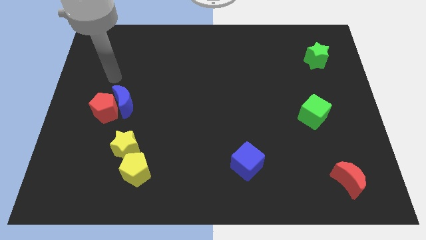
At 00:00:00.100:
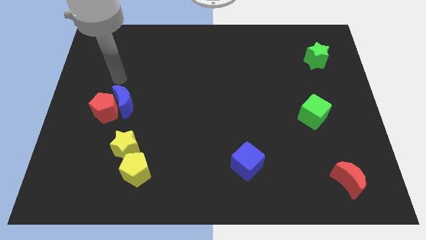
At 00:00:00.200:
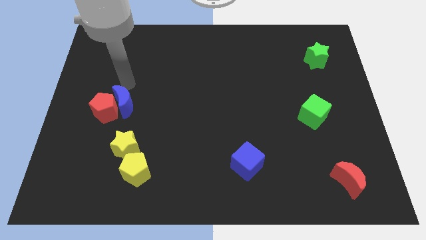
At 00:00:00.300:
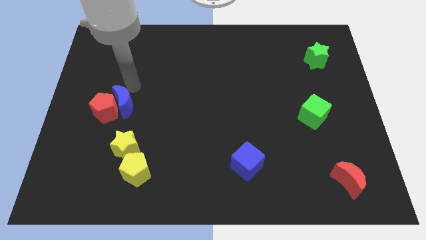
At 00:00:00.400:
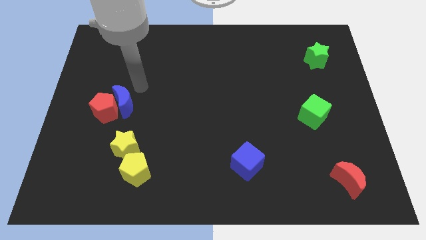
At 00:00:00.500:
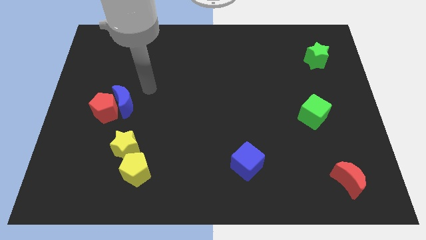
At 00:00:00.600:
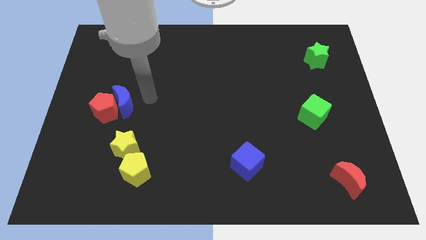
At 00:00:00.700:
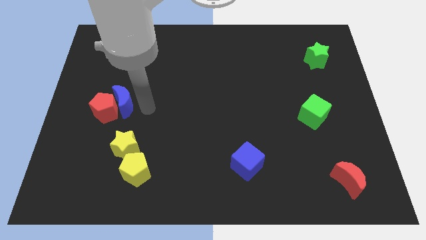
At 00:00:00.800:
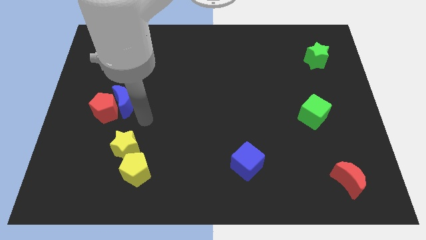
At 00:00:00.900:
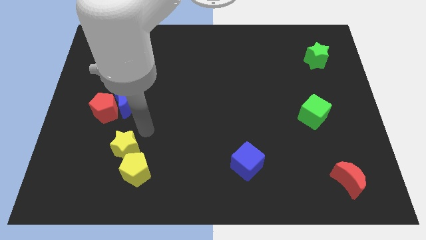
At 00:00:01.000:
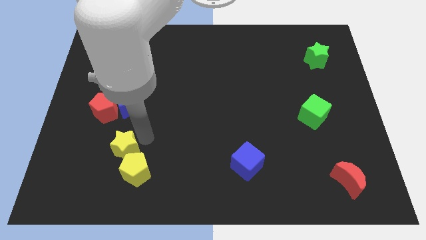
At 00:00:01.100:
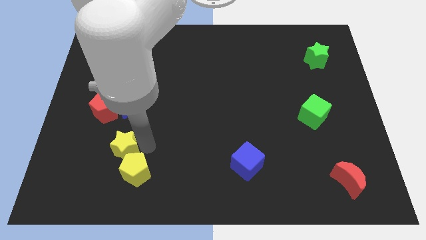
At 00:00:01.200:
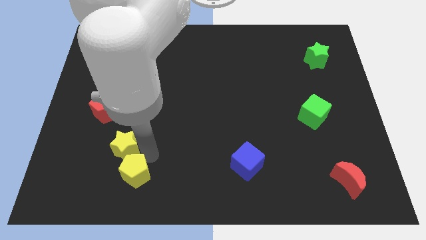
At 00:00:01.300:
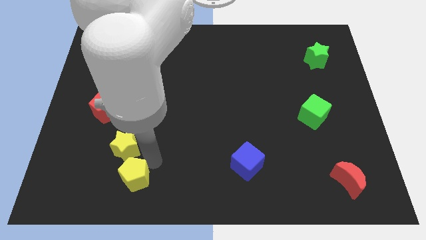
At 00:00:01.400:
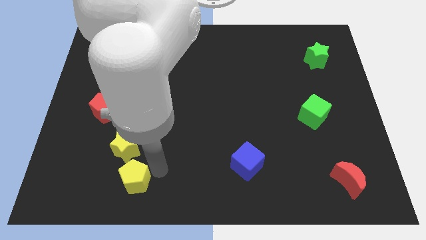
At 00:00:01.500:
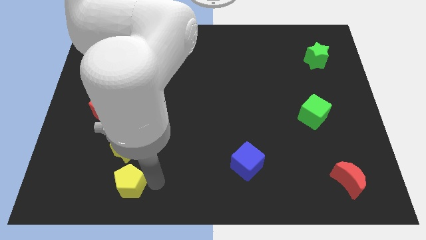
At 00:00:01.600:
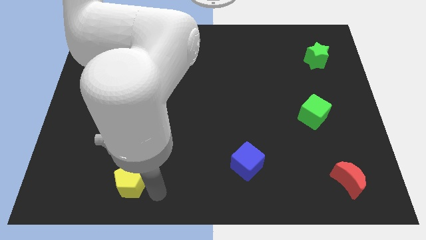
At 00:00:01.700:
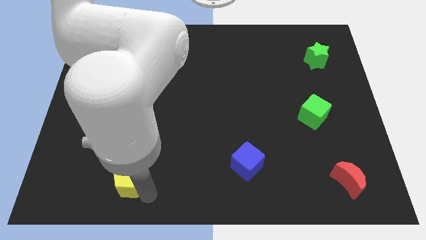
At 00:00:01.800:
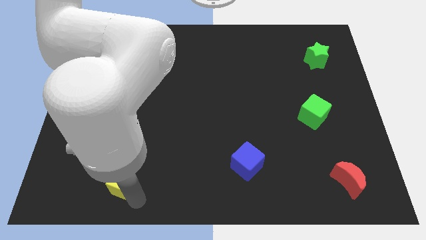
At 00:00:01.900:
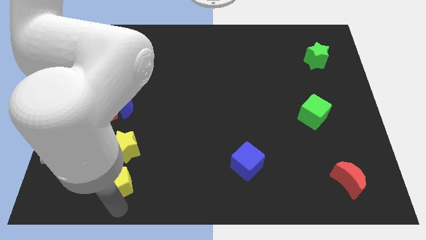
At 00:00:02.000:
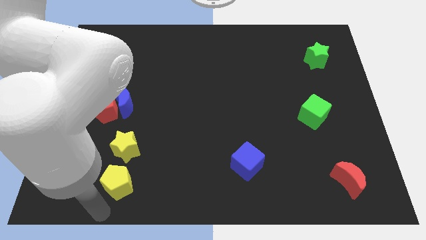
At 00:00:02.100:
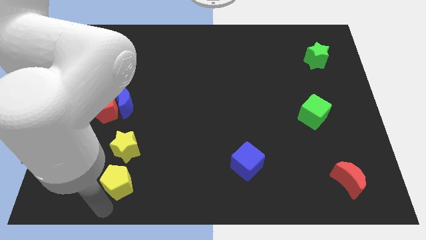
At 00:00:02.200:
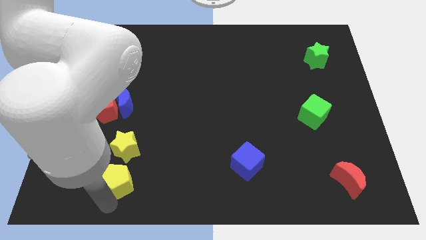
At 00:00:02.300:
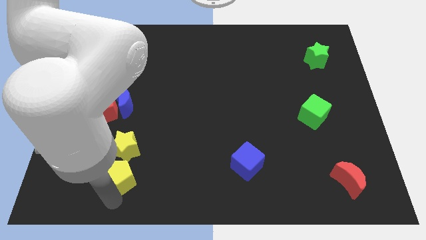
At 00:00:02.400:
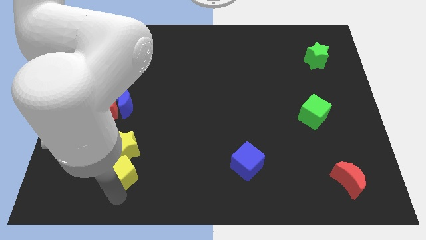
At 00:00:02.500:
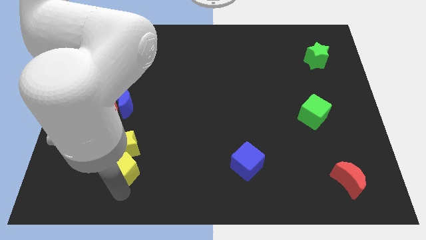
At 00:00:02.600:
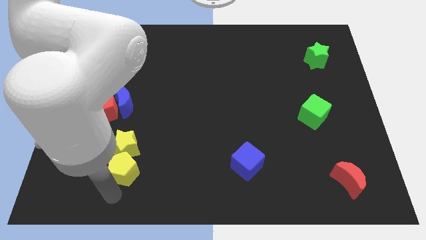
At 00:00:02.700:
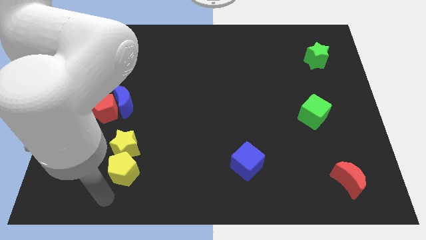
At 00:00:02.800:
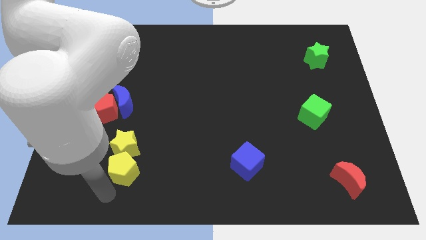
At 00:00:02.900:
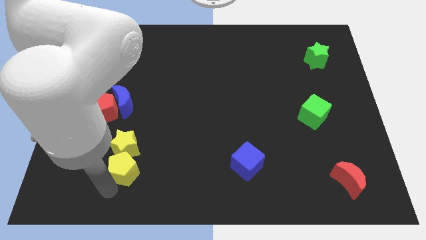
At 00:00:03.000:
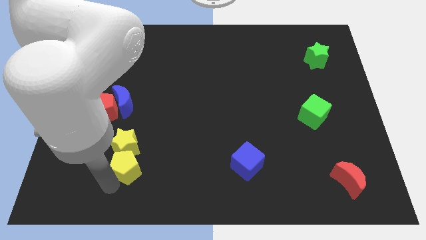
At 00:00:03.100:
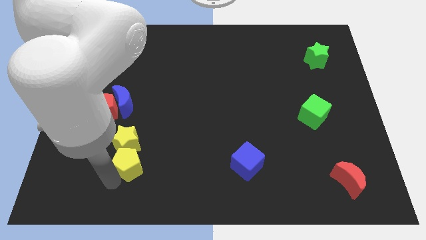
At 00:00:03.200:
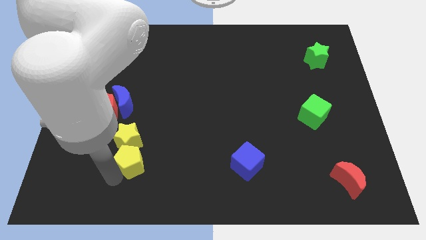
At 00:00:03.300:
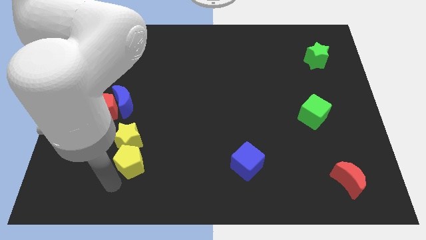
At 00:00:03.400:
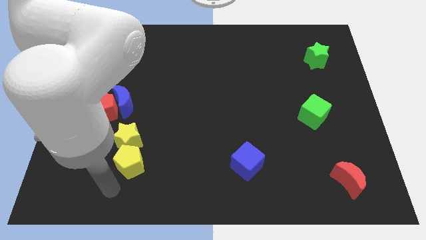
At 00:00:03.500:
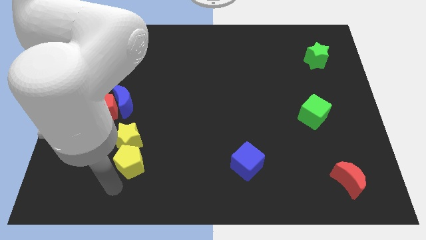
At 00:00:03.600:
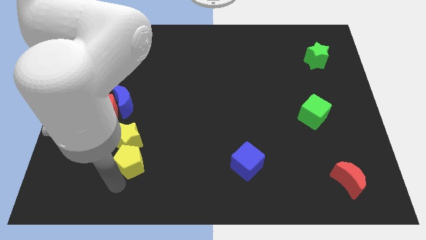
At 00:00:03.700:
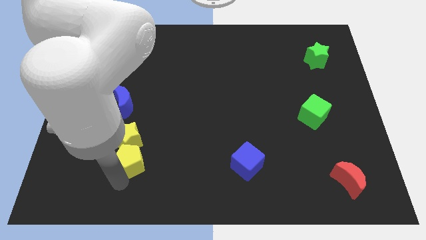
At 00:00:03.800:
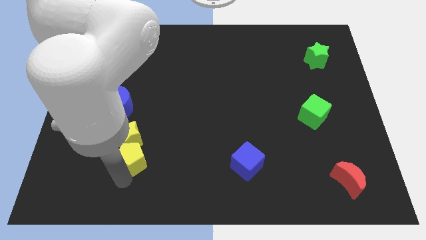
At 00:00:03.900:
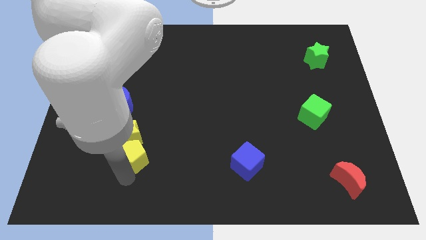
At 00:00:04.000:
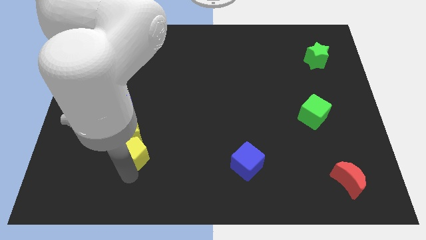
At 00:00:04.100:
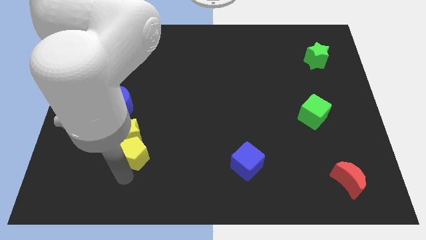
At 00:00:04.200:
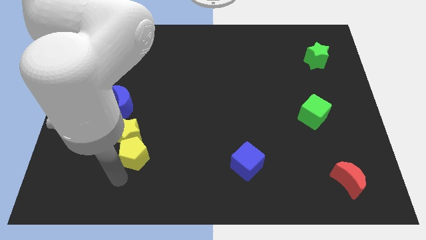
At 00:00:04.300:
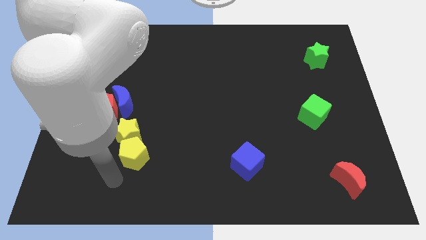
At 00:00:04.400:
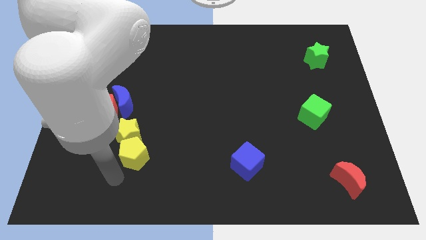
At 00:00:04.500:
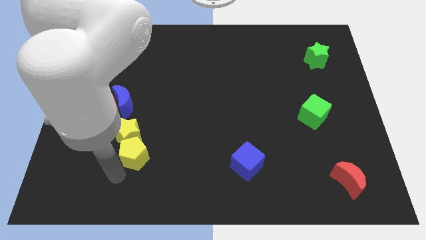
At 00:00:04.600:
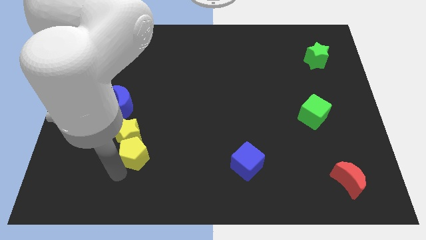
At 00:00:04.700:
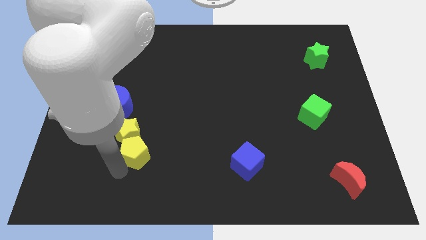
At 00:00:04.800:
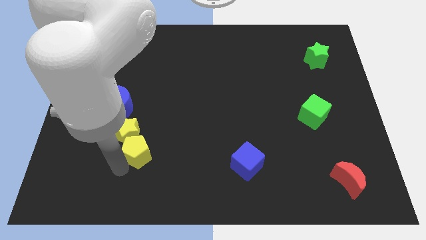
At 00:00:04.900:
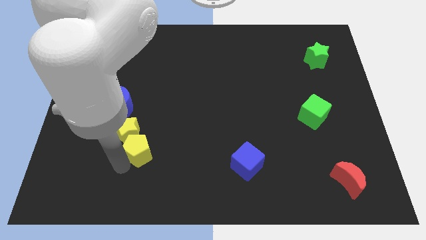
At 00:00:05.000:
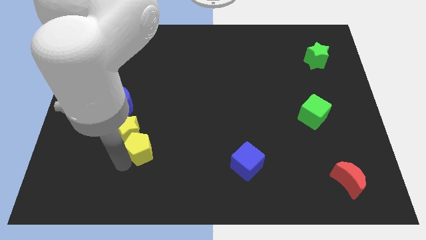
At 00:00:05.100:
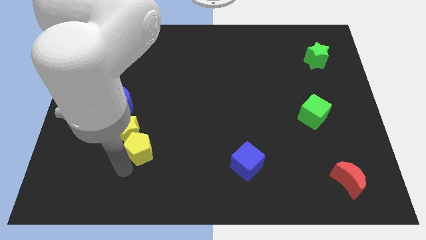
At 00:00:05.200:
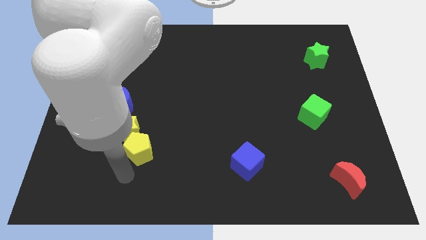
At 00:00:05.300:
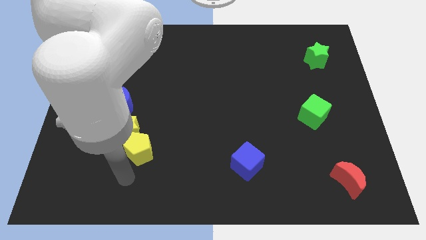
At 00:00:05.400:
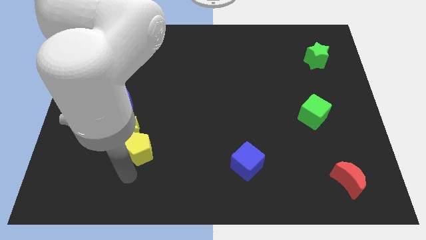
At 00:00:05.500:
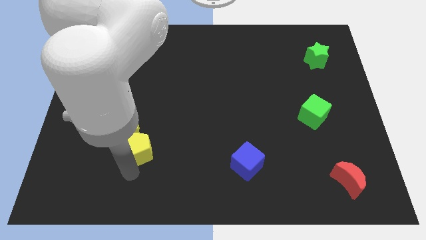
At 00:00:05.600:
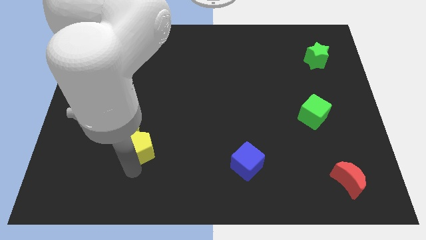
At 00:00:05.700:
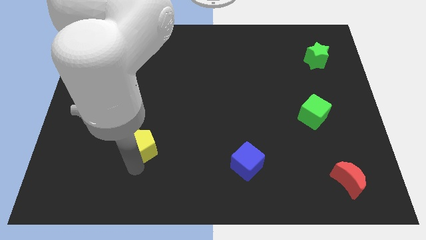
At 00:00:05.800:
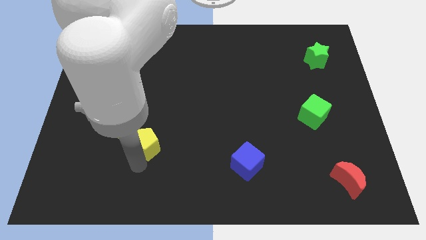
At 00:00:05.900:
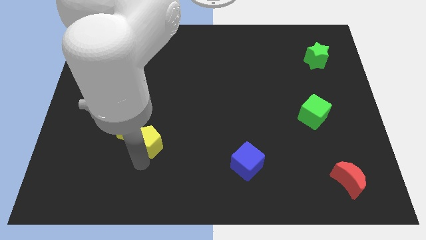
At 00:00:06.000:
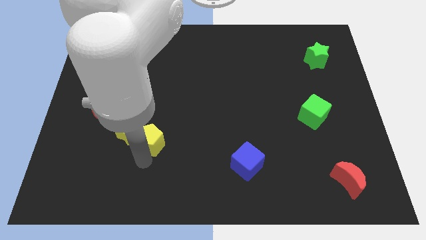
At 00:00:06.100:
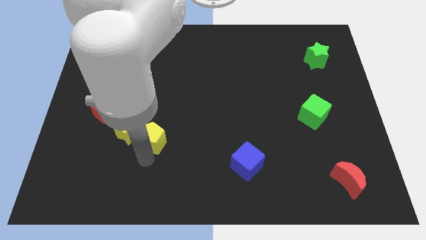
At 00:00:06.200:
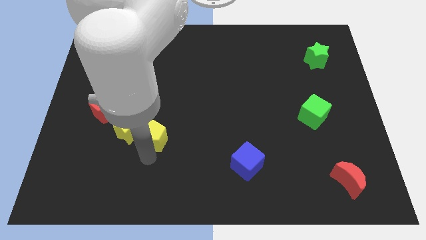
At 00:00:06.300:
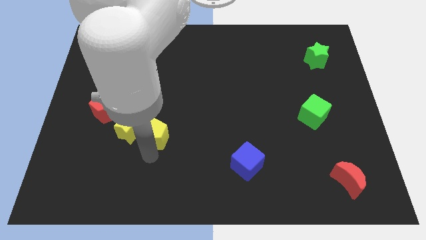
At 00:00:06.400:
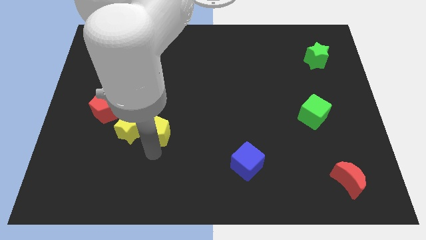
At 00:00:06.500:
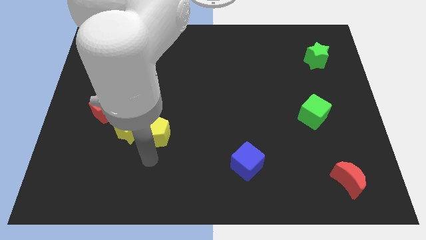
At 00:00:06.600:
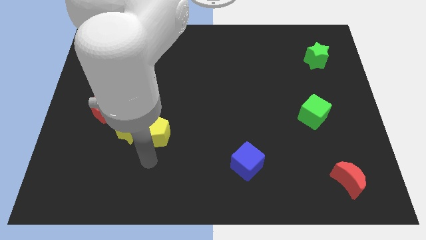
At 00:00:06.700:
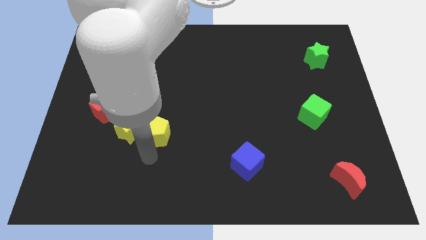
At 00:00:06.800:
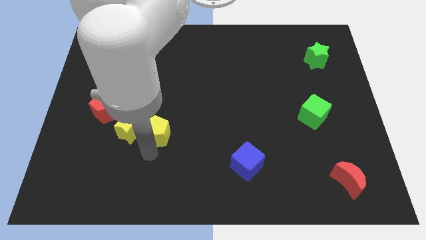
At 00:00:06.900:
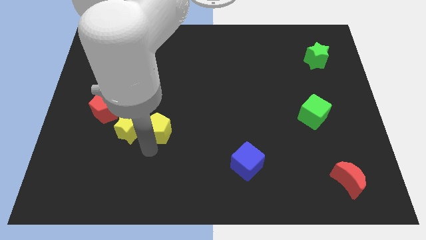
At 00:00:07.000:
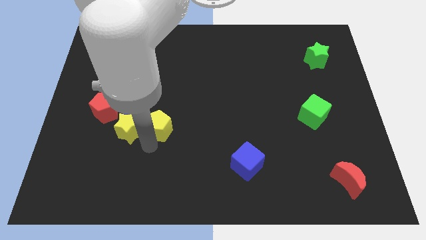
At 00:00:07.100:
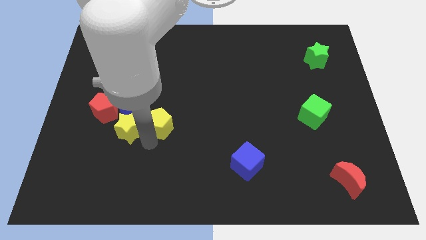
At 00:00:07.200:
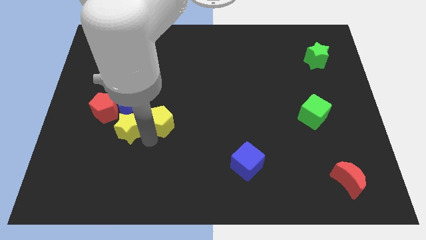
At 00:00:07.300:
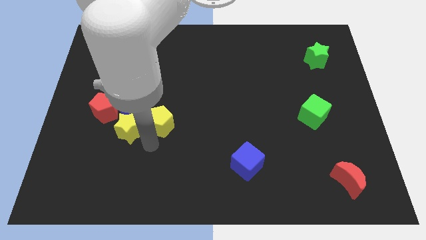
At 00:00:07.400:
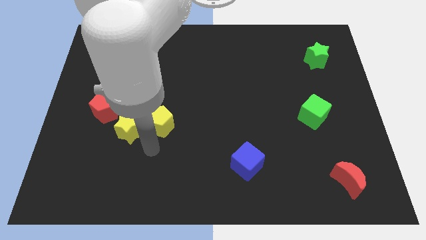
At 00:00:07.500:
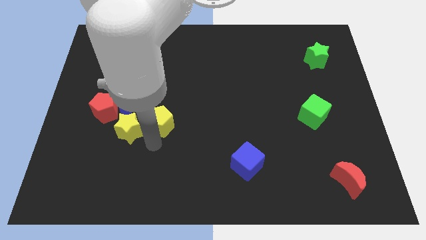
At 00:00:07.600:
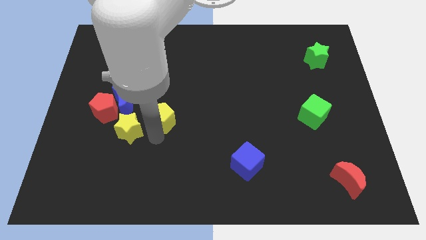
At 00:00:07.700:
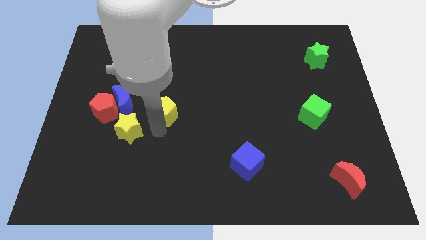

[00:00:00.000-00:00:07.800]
move the yellow pentagon to the right of the blue moon
